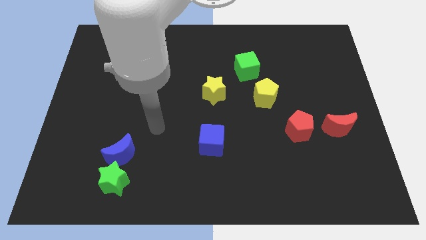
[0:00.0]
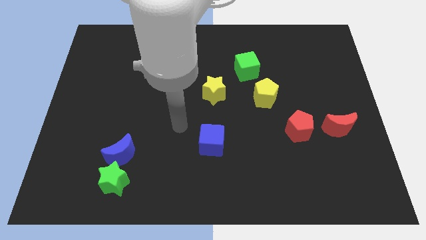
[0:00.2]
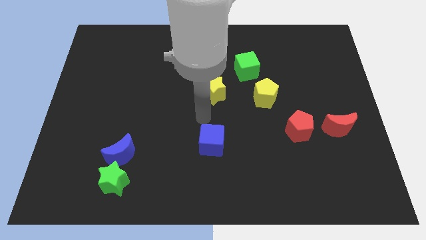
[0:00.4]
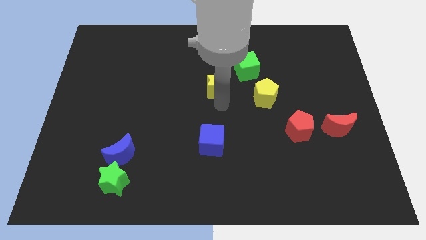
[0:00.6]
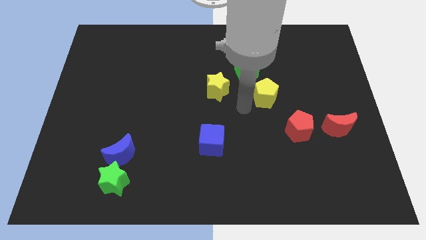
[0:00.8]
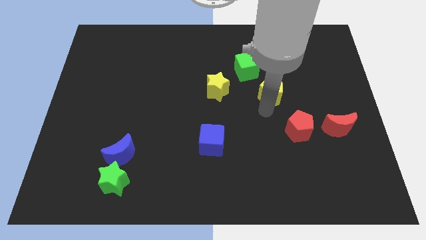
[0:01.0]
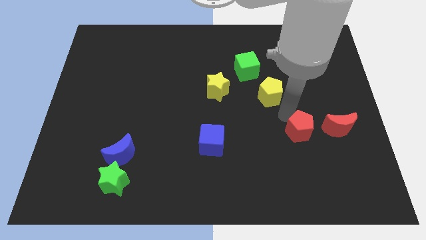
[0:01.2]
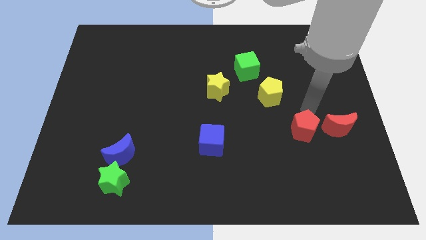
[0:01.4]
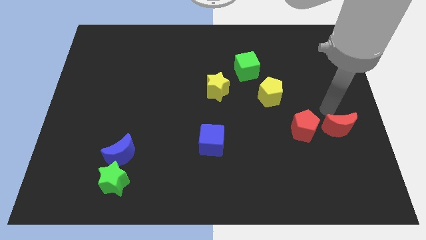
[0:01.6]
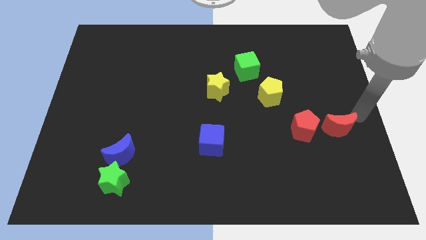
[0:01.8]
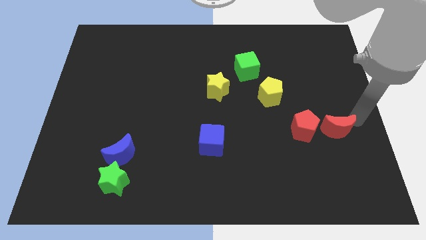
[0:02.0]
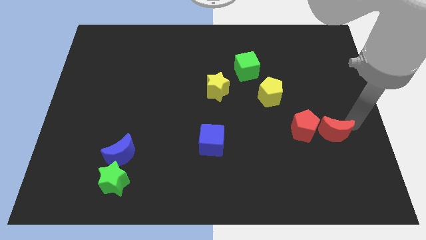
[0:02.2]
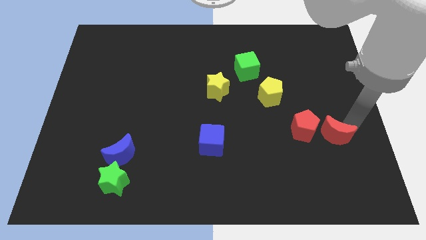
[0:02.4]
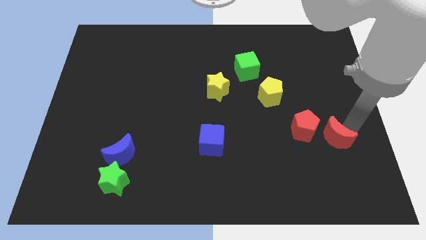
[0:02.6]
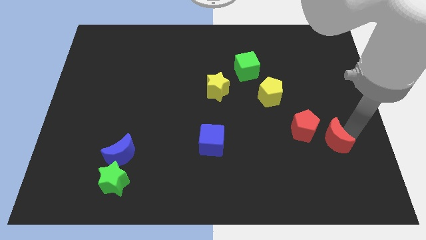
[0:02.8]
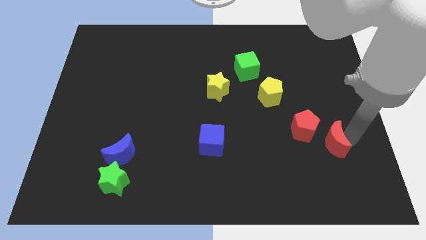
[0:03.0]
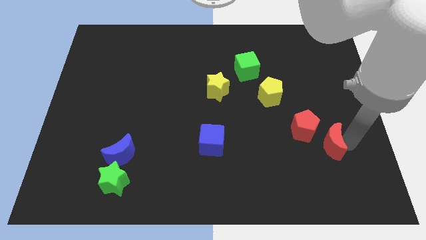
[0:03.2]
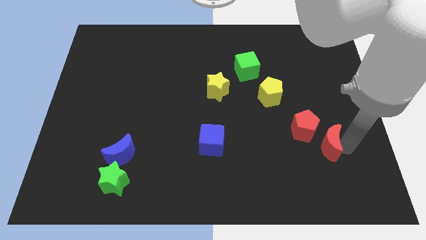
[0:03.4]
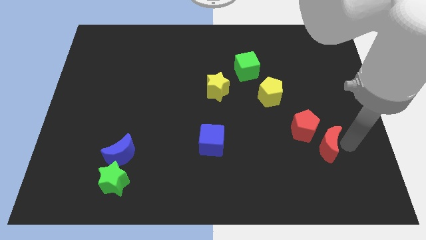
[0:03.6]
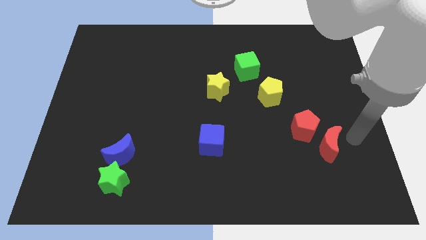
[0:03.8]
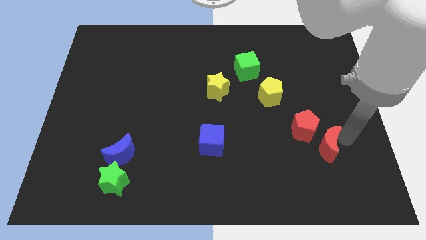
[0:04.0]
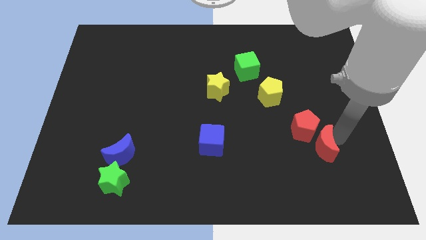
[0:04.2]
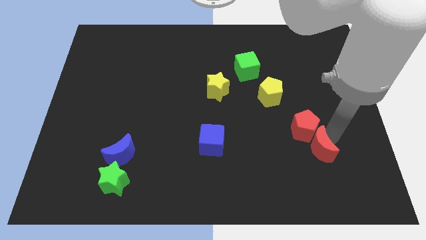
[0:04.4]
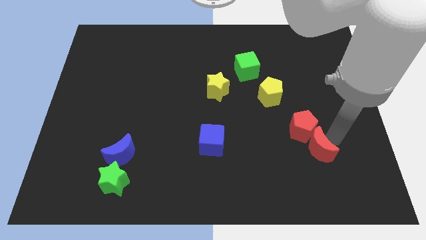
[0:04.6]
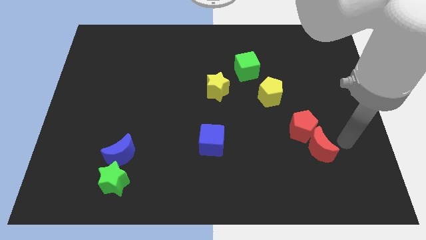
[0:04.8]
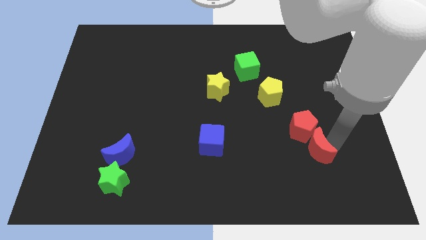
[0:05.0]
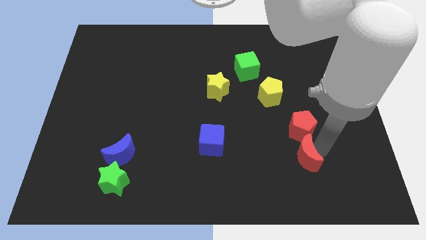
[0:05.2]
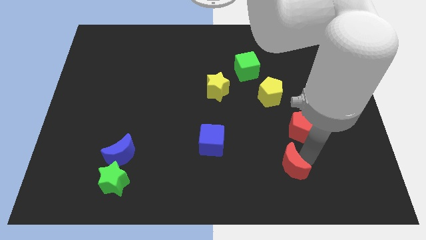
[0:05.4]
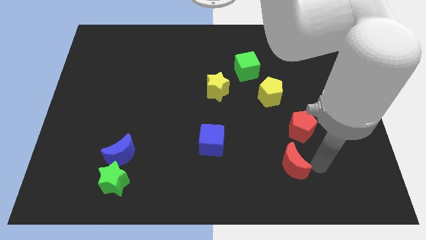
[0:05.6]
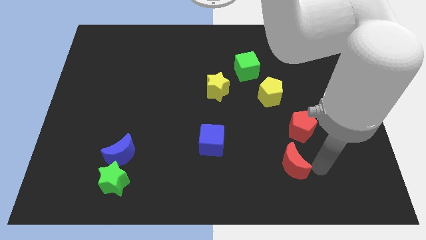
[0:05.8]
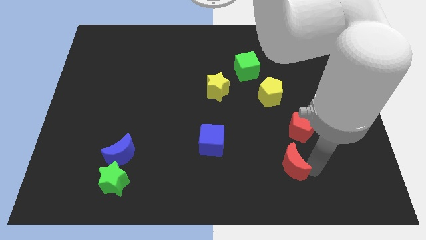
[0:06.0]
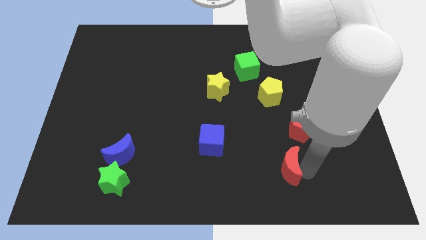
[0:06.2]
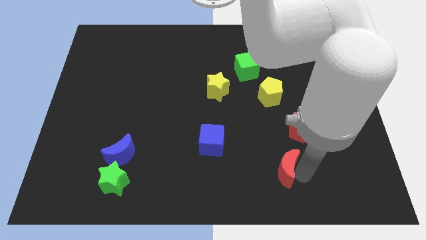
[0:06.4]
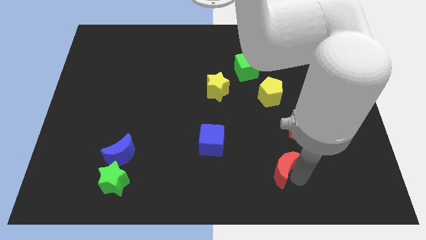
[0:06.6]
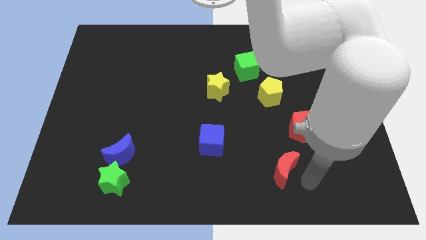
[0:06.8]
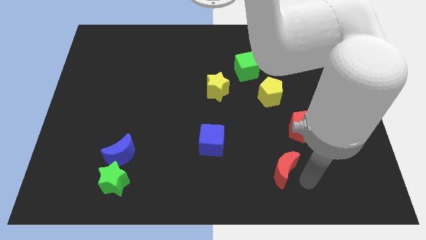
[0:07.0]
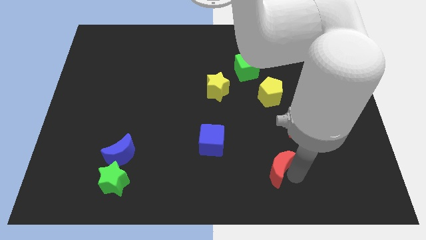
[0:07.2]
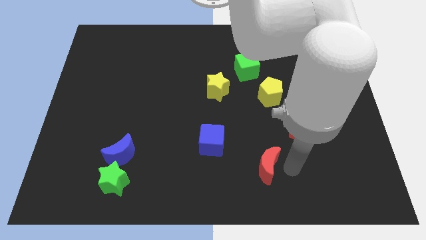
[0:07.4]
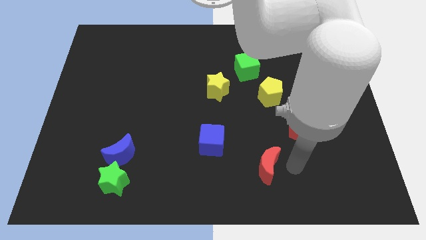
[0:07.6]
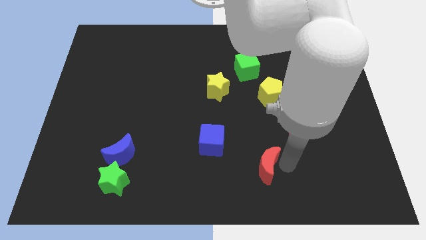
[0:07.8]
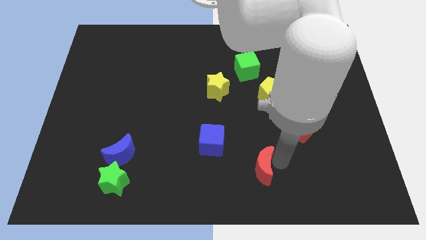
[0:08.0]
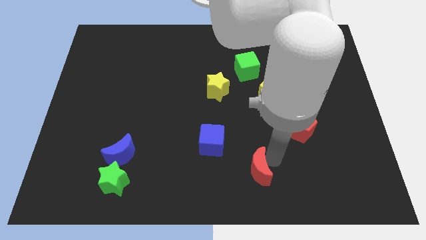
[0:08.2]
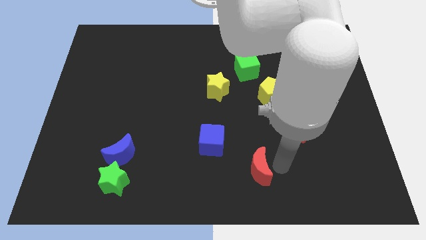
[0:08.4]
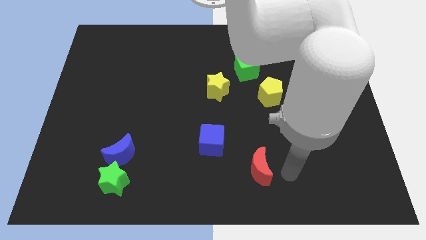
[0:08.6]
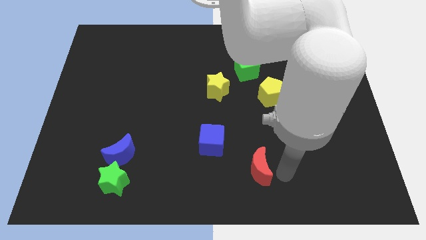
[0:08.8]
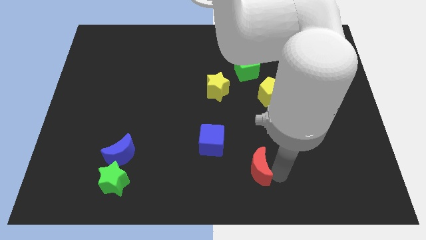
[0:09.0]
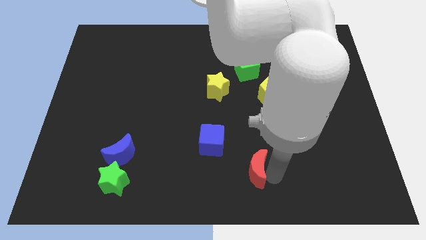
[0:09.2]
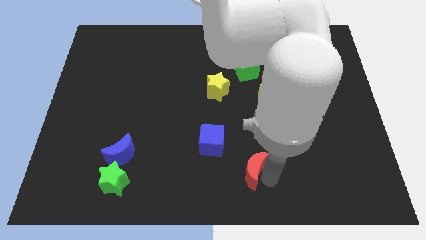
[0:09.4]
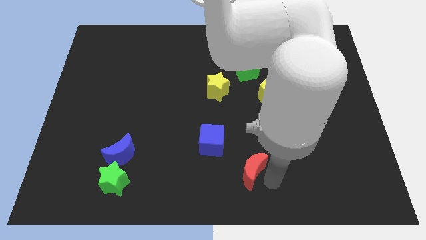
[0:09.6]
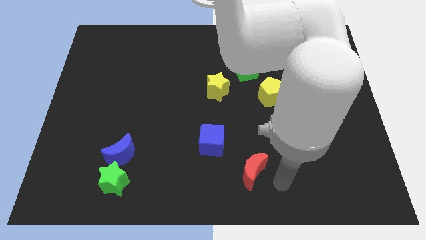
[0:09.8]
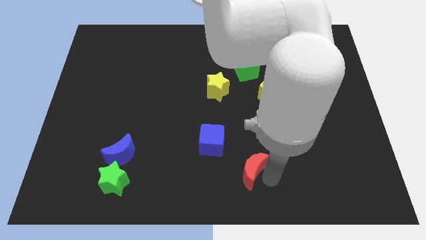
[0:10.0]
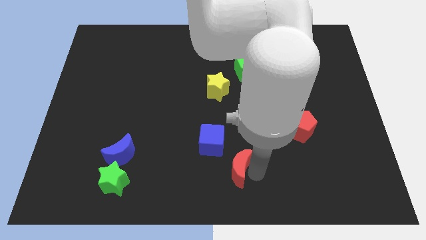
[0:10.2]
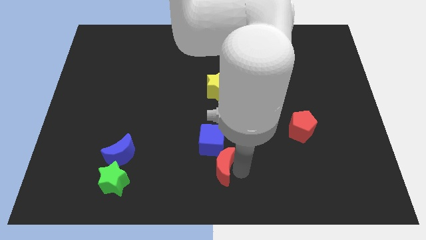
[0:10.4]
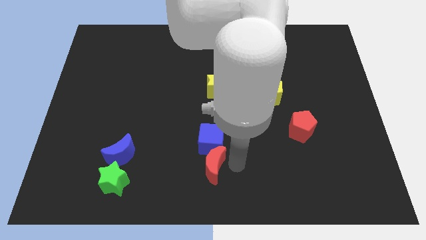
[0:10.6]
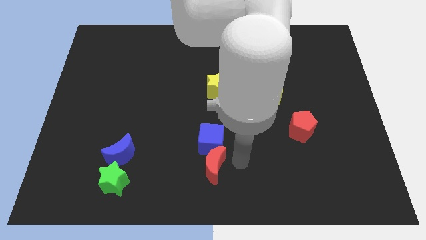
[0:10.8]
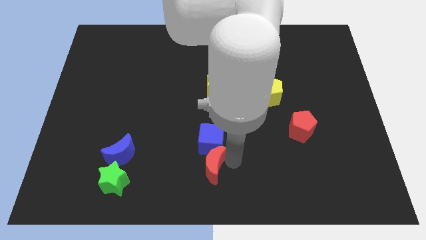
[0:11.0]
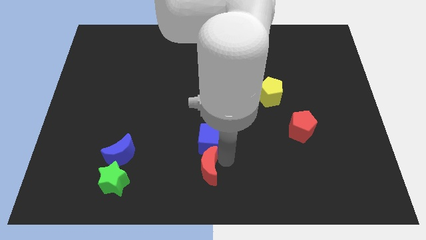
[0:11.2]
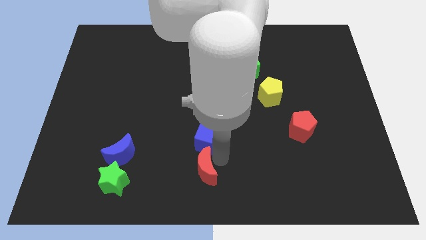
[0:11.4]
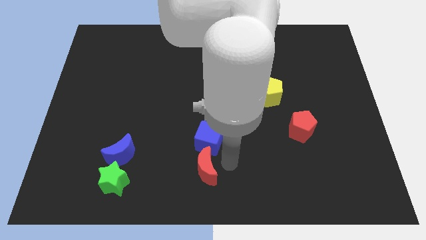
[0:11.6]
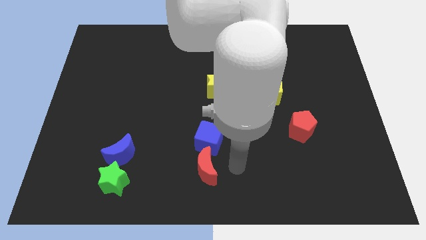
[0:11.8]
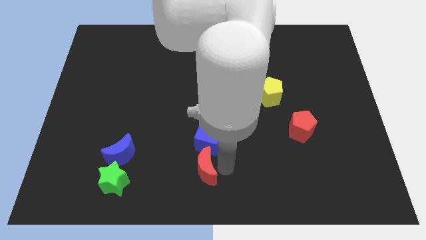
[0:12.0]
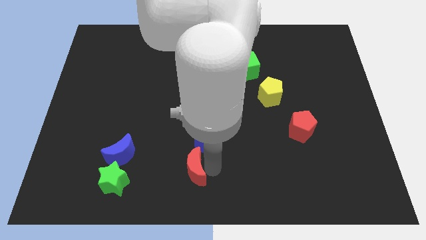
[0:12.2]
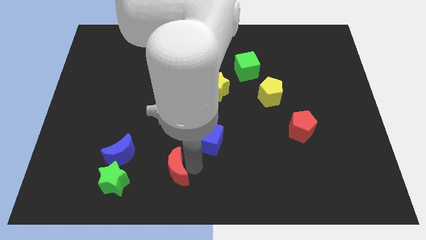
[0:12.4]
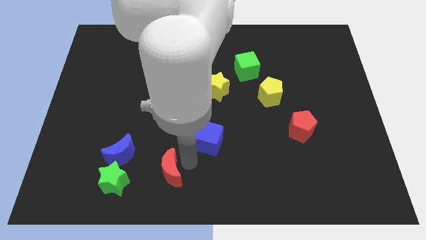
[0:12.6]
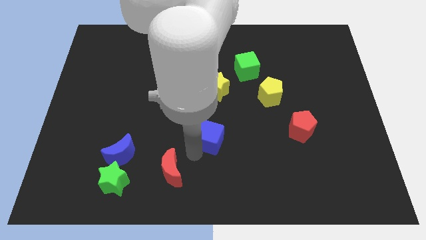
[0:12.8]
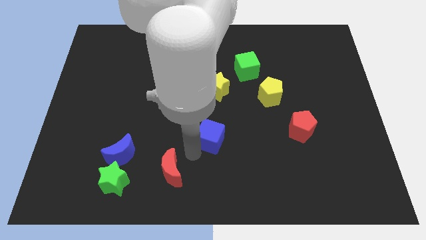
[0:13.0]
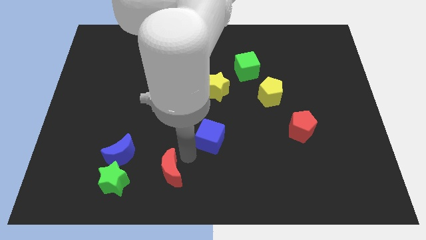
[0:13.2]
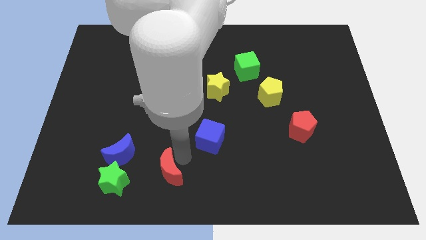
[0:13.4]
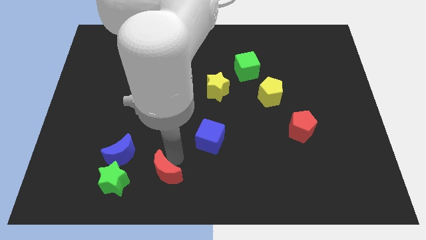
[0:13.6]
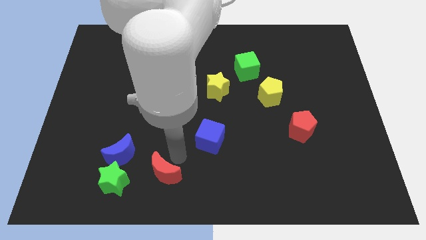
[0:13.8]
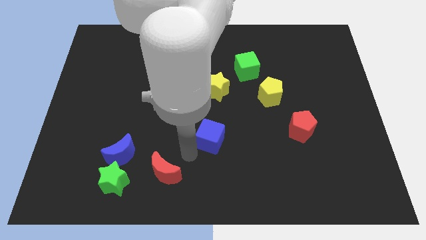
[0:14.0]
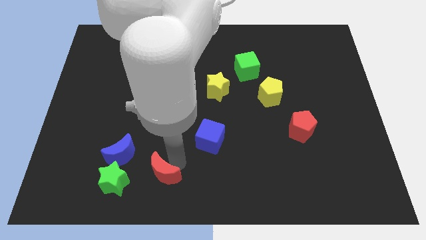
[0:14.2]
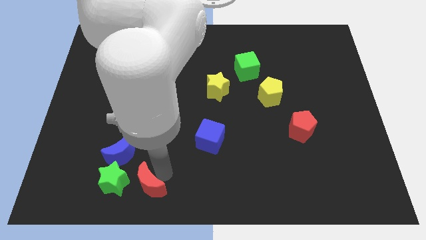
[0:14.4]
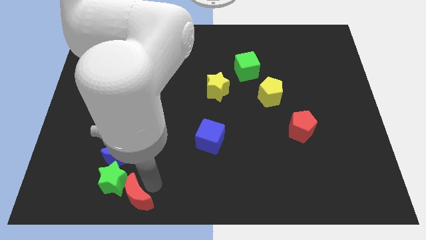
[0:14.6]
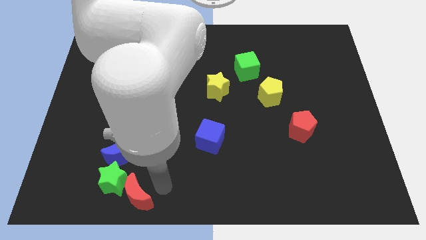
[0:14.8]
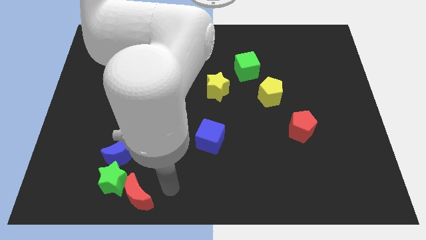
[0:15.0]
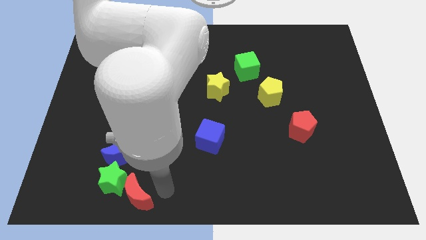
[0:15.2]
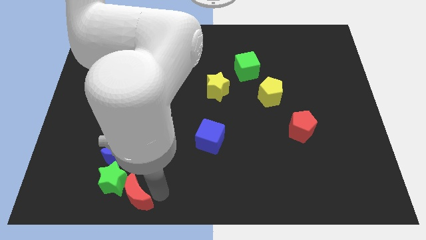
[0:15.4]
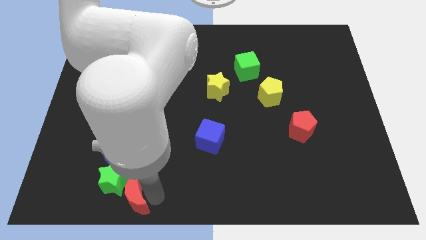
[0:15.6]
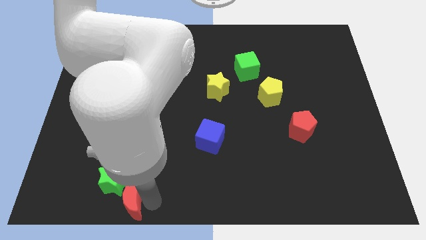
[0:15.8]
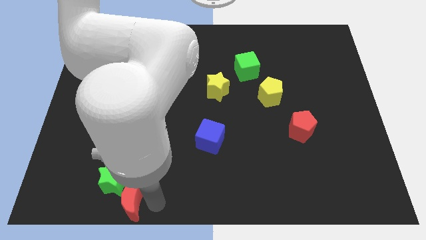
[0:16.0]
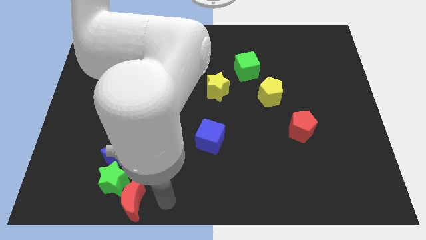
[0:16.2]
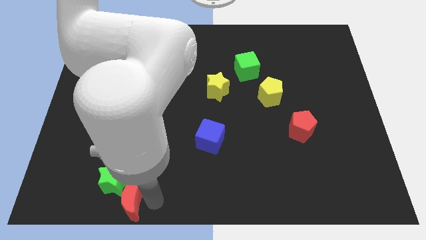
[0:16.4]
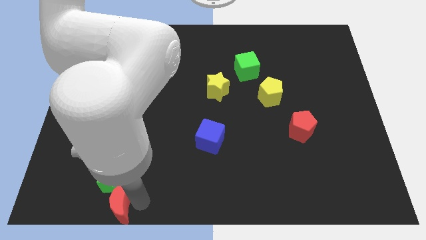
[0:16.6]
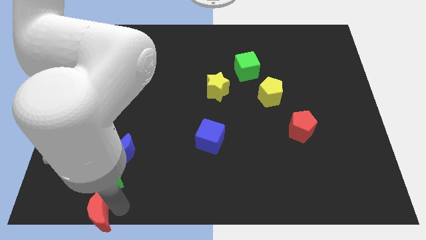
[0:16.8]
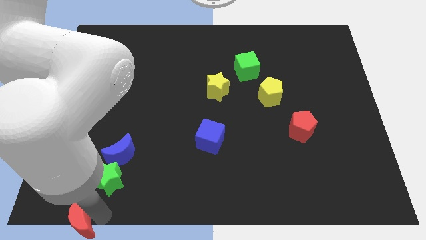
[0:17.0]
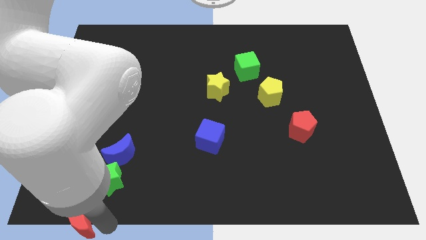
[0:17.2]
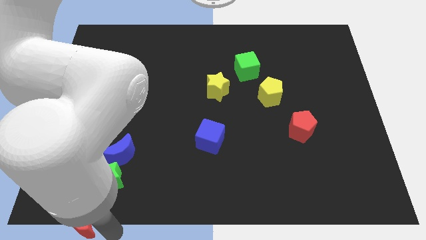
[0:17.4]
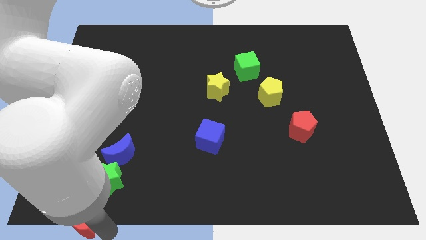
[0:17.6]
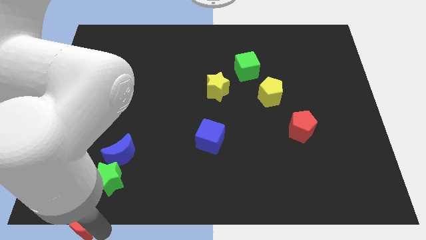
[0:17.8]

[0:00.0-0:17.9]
push the red moon to the lower left corner
